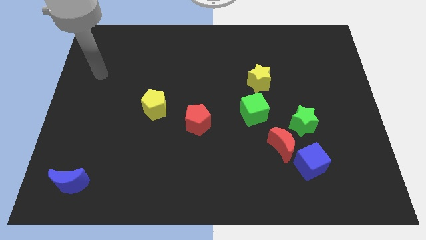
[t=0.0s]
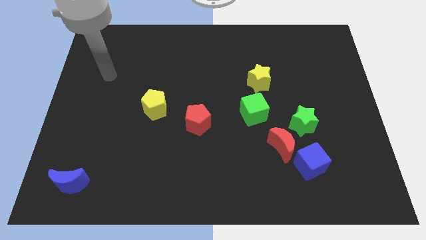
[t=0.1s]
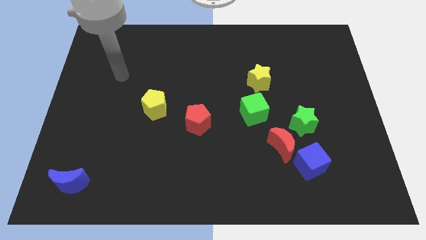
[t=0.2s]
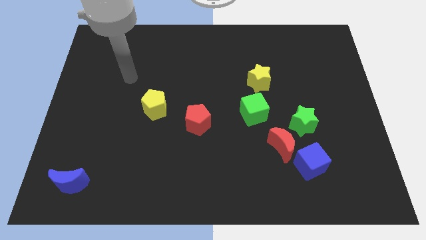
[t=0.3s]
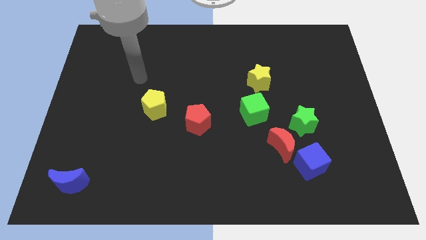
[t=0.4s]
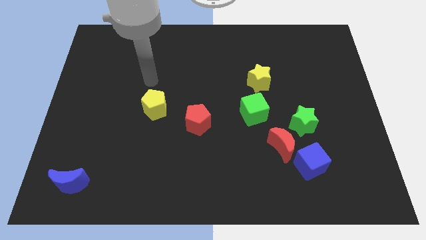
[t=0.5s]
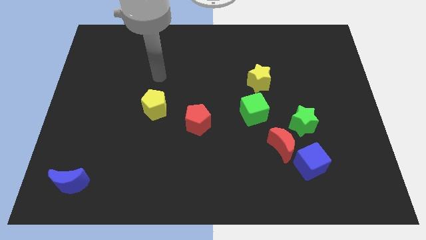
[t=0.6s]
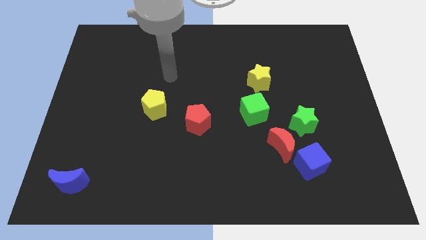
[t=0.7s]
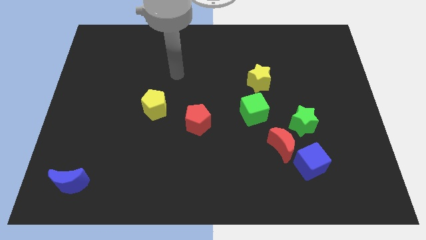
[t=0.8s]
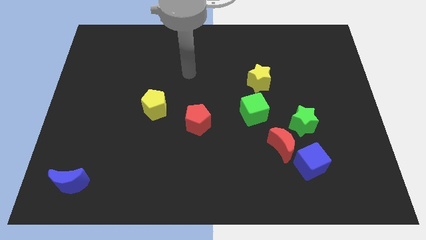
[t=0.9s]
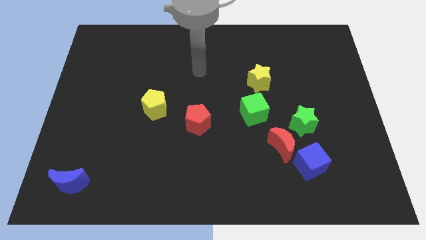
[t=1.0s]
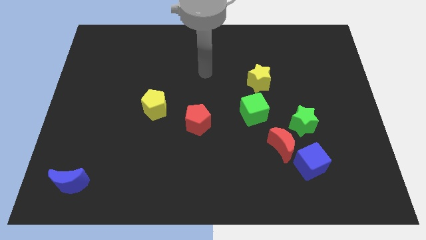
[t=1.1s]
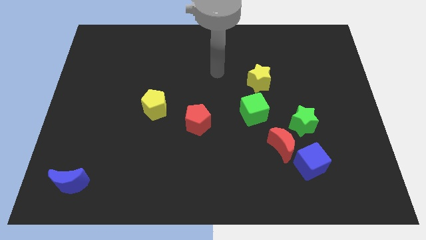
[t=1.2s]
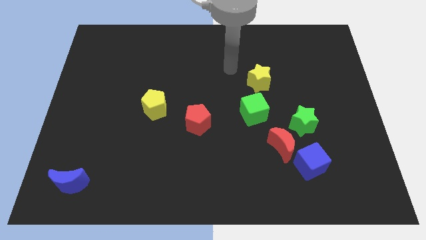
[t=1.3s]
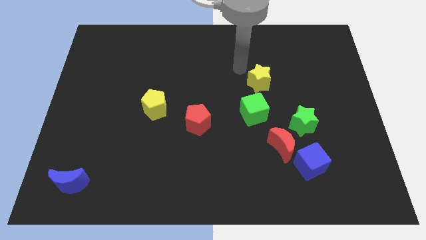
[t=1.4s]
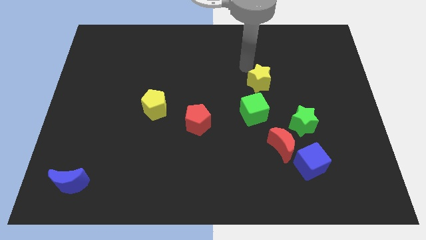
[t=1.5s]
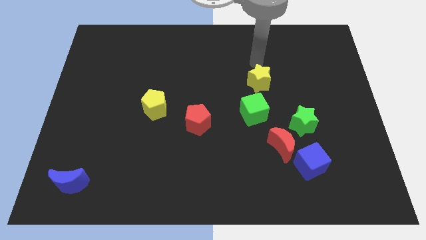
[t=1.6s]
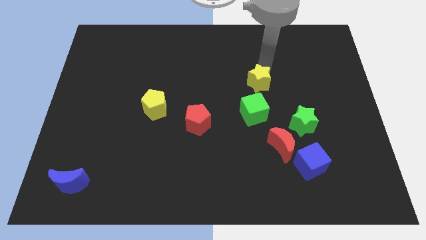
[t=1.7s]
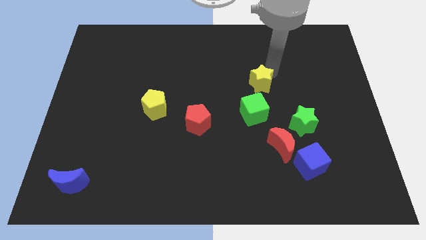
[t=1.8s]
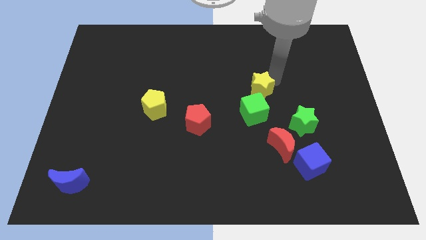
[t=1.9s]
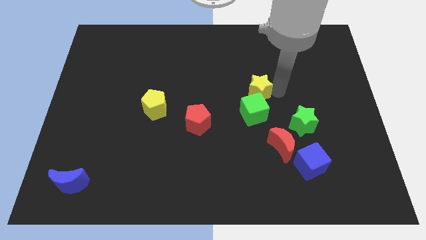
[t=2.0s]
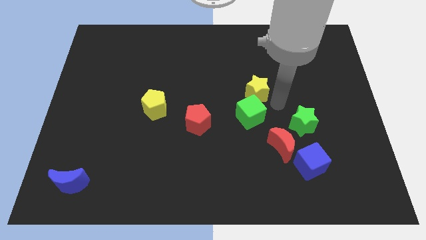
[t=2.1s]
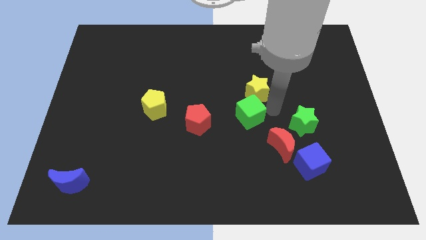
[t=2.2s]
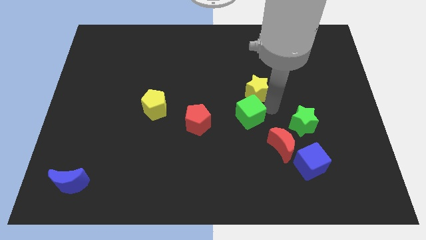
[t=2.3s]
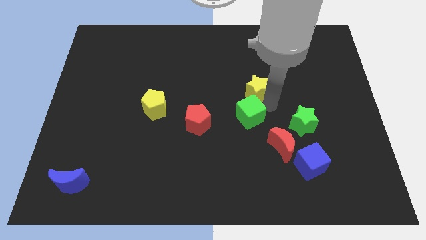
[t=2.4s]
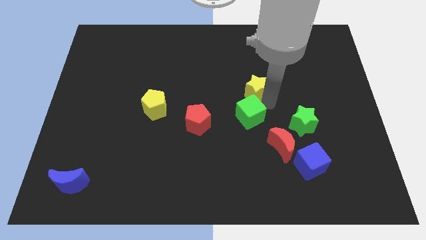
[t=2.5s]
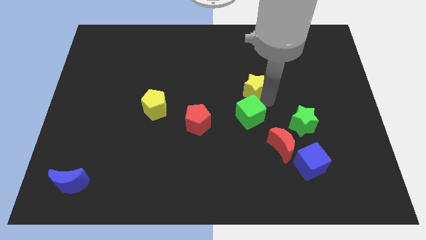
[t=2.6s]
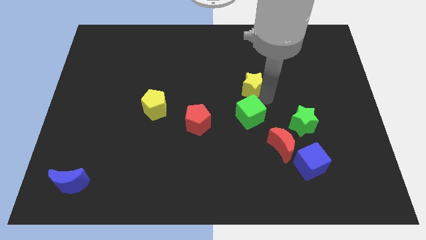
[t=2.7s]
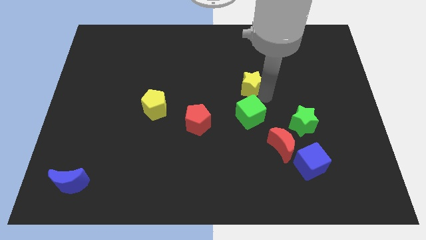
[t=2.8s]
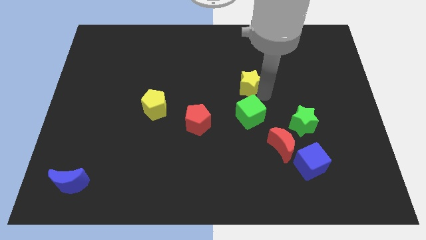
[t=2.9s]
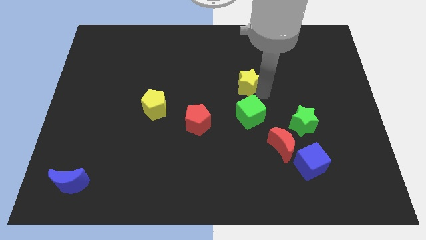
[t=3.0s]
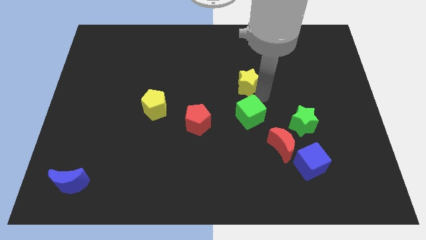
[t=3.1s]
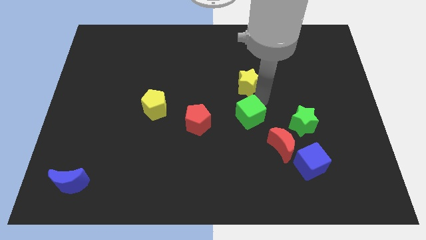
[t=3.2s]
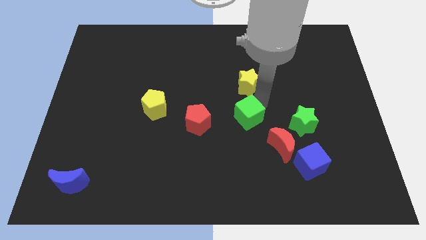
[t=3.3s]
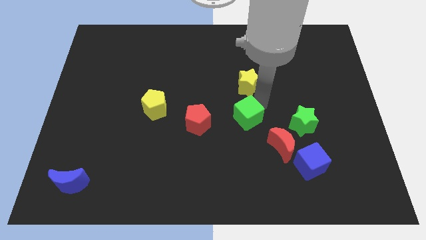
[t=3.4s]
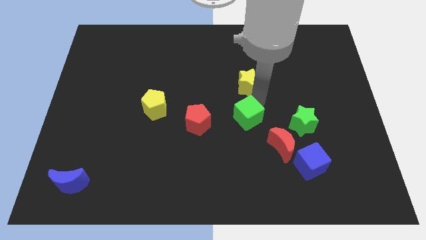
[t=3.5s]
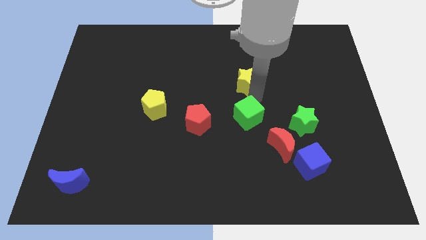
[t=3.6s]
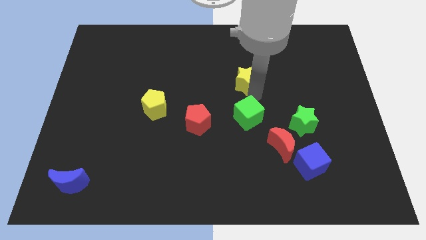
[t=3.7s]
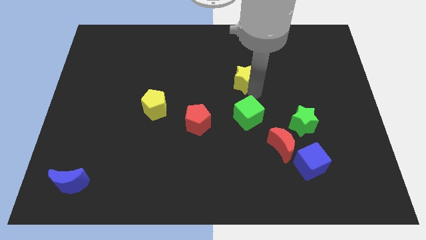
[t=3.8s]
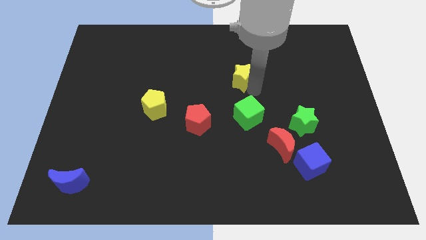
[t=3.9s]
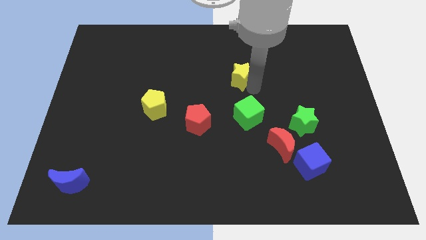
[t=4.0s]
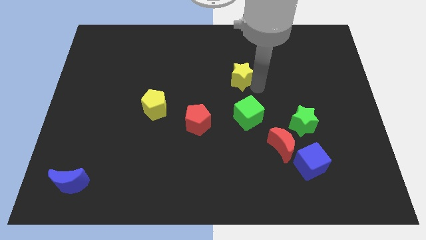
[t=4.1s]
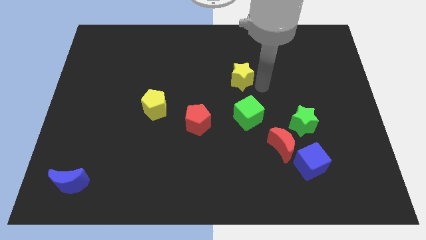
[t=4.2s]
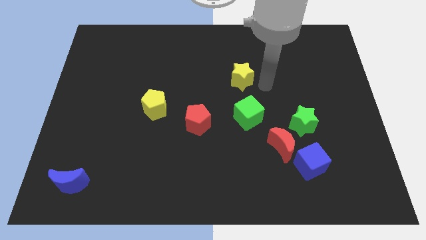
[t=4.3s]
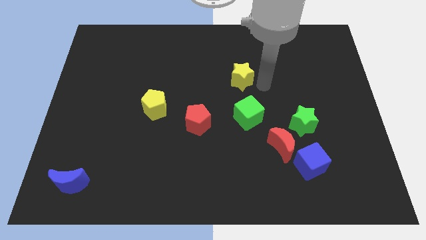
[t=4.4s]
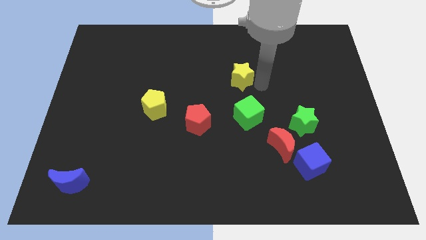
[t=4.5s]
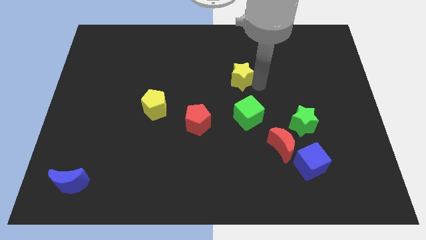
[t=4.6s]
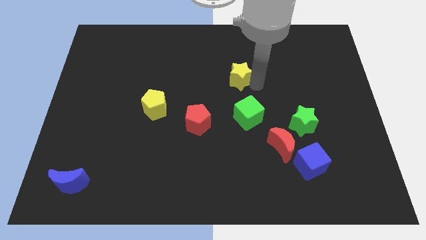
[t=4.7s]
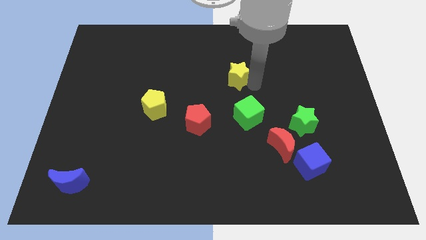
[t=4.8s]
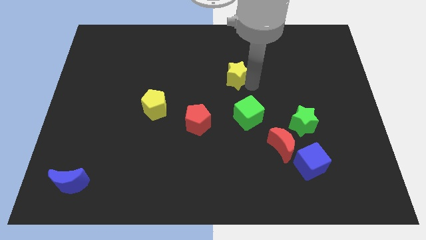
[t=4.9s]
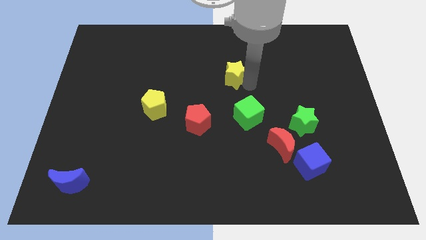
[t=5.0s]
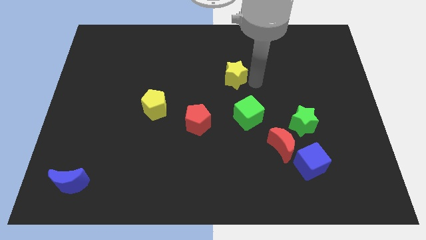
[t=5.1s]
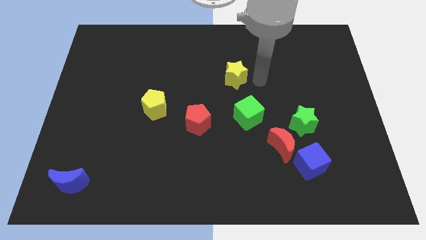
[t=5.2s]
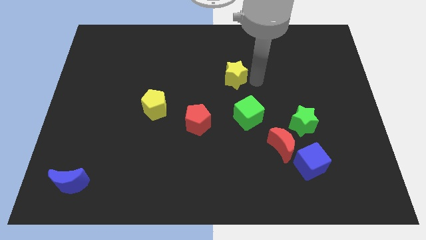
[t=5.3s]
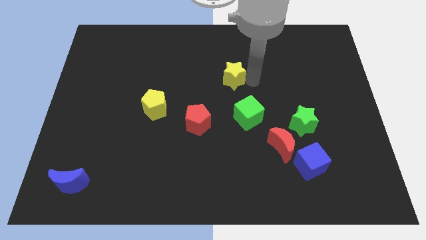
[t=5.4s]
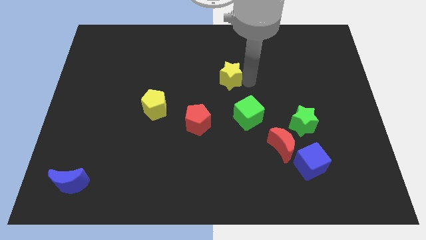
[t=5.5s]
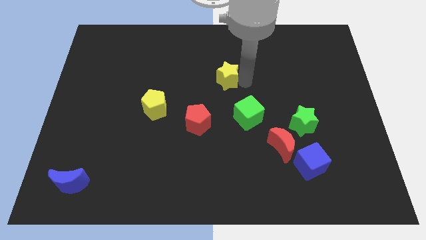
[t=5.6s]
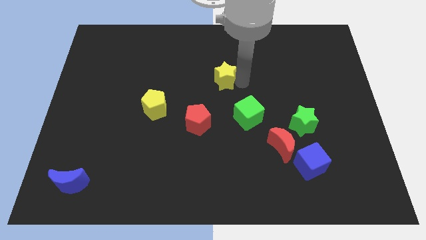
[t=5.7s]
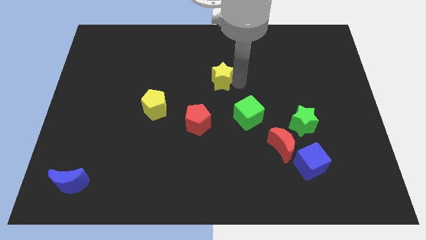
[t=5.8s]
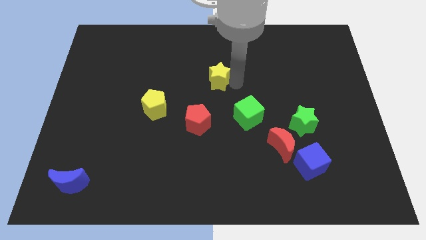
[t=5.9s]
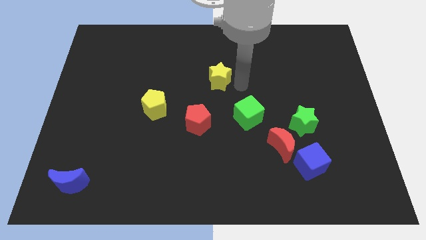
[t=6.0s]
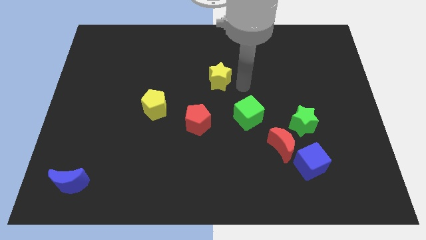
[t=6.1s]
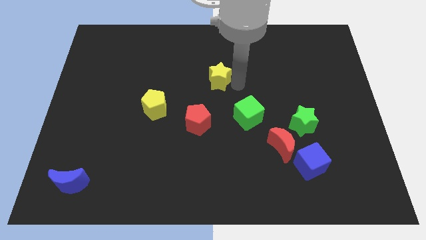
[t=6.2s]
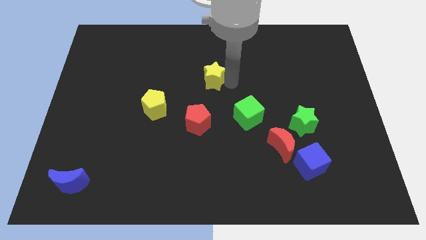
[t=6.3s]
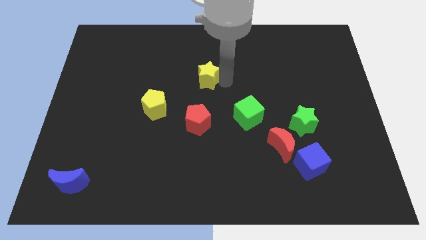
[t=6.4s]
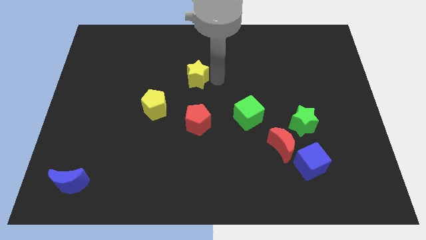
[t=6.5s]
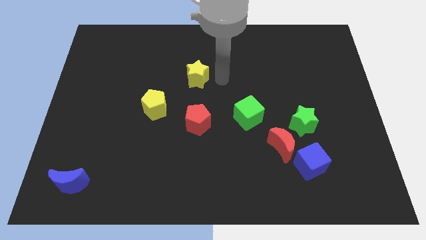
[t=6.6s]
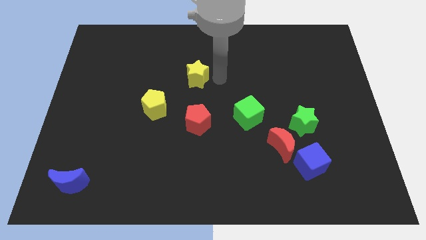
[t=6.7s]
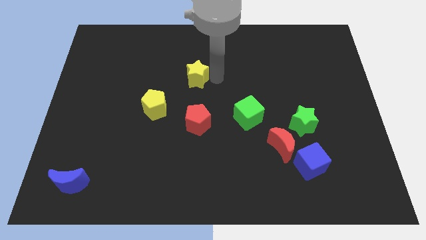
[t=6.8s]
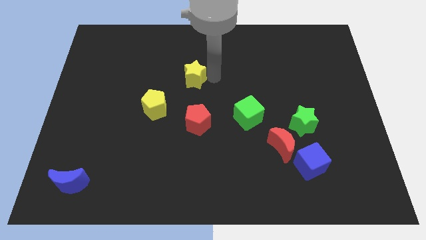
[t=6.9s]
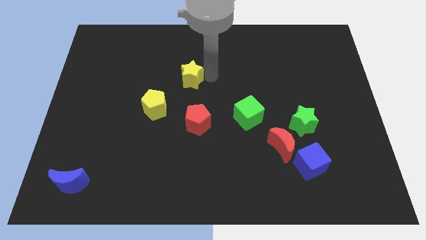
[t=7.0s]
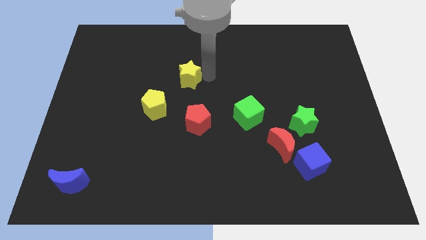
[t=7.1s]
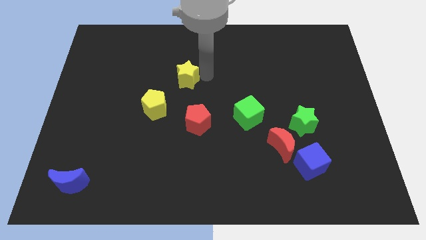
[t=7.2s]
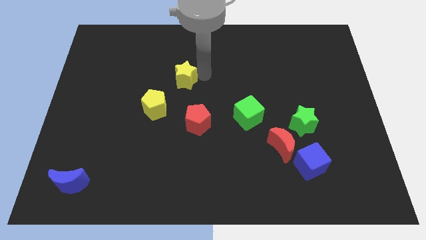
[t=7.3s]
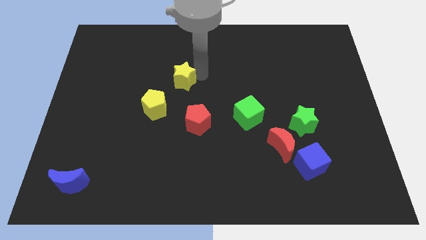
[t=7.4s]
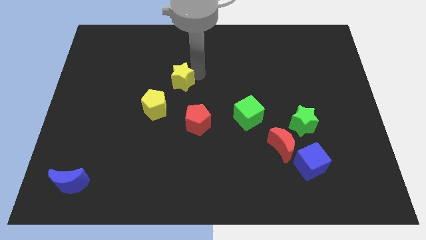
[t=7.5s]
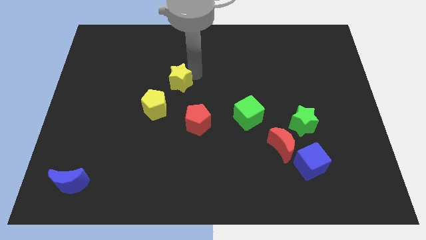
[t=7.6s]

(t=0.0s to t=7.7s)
push the yellow star to the left

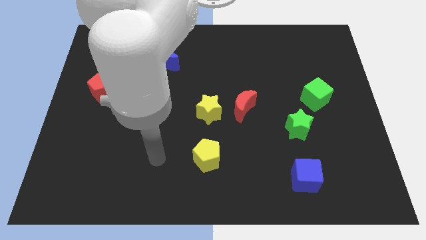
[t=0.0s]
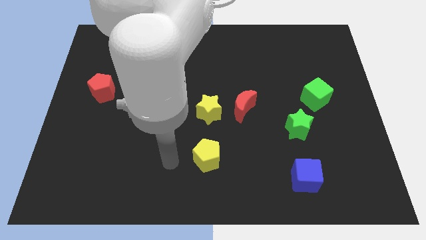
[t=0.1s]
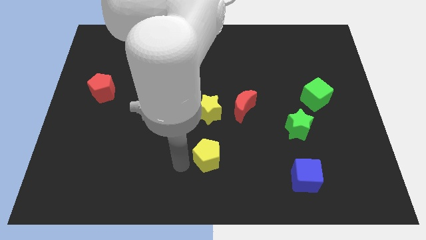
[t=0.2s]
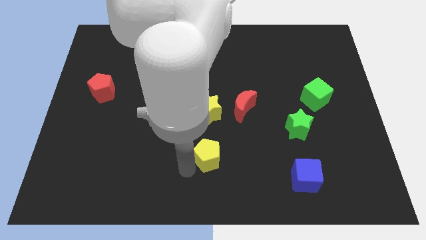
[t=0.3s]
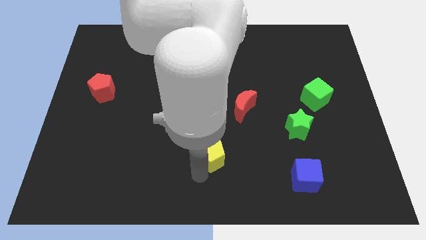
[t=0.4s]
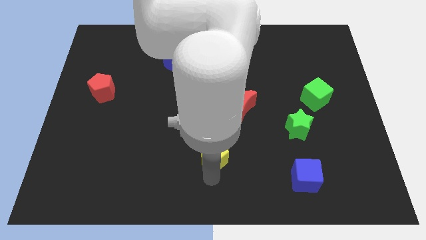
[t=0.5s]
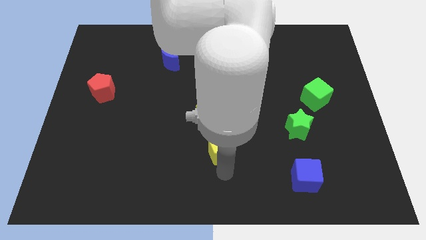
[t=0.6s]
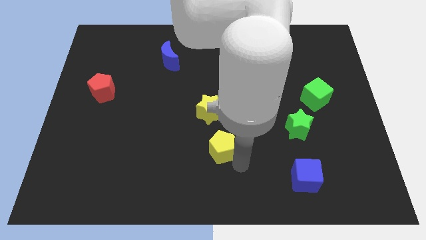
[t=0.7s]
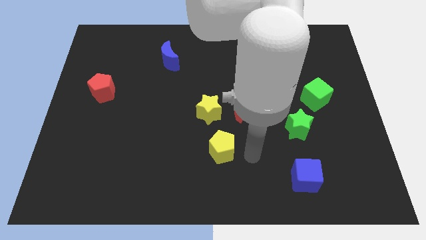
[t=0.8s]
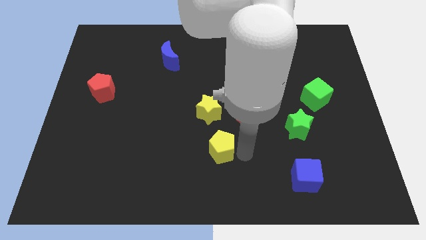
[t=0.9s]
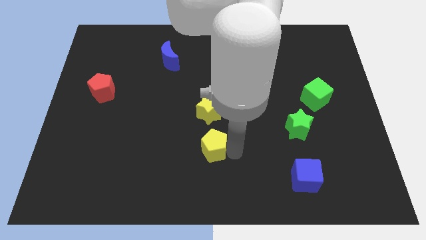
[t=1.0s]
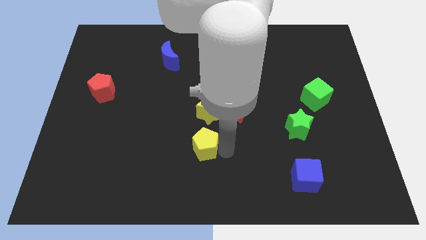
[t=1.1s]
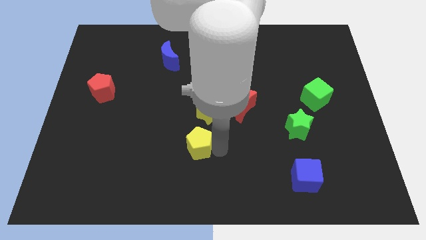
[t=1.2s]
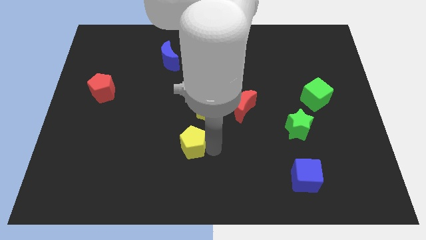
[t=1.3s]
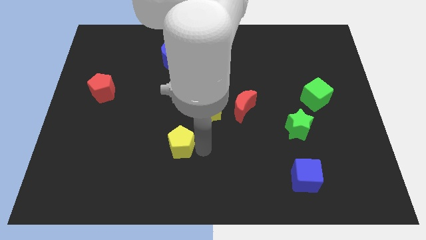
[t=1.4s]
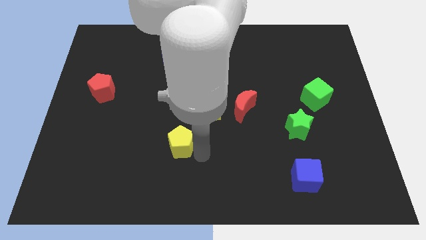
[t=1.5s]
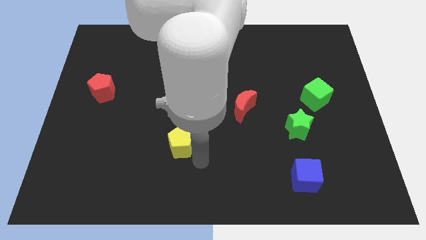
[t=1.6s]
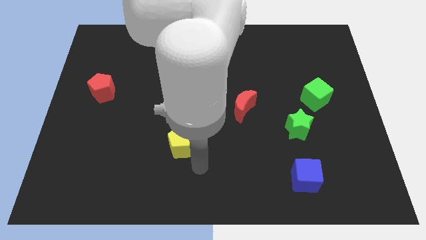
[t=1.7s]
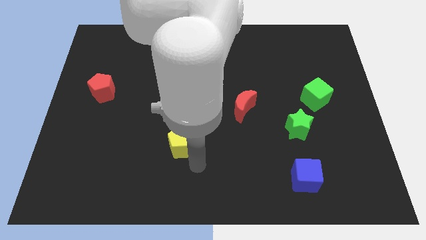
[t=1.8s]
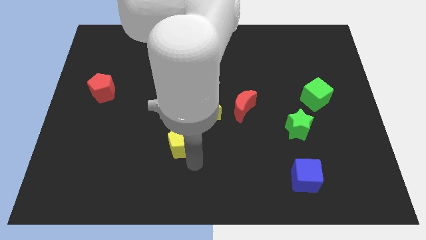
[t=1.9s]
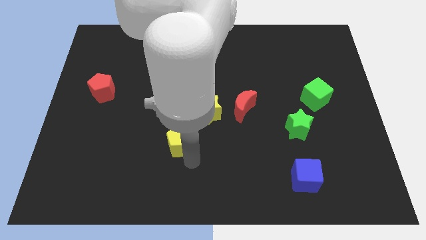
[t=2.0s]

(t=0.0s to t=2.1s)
move the yellow pentagon somewhat up and then left
